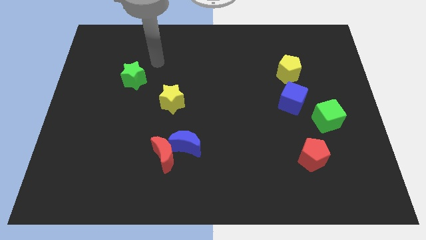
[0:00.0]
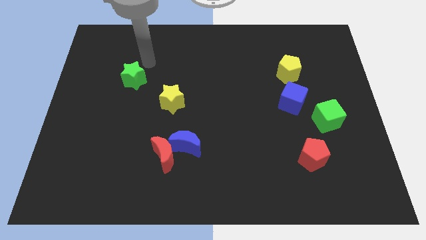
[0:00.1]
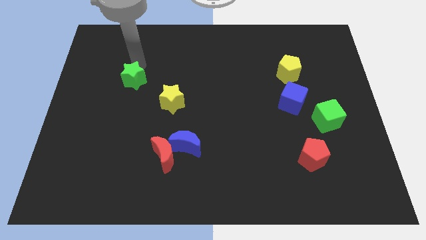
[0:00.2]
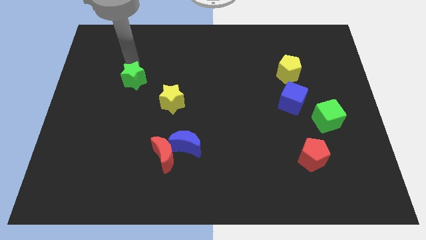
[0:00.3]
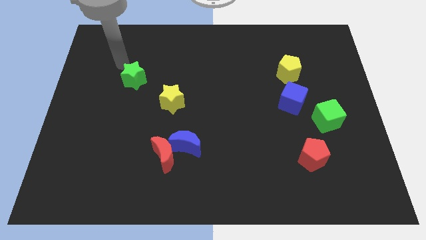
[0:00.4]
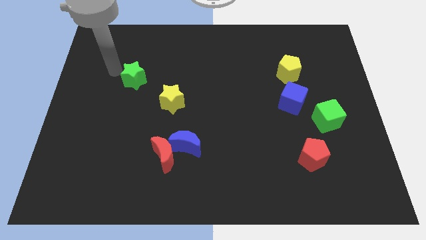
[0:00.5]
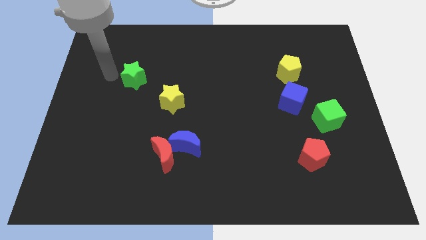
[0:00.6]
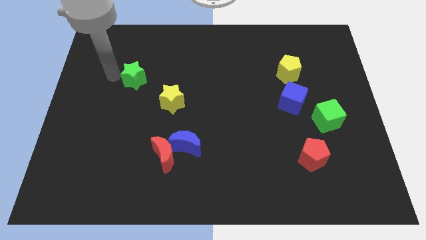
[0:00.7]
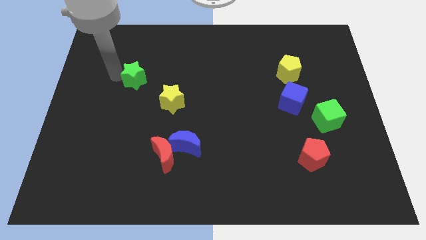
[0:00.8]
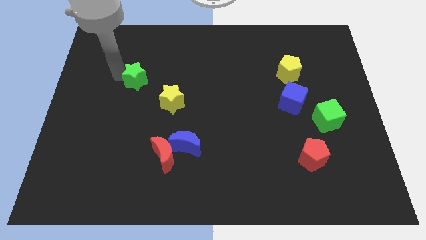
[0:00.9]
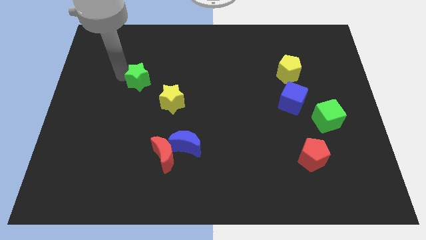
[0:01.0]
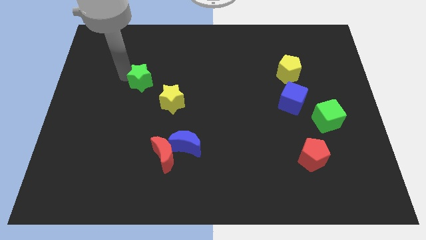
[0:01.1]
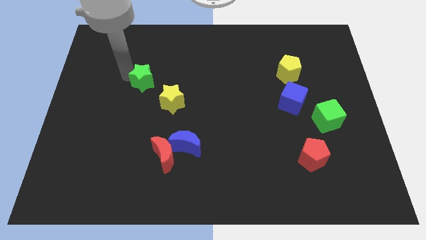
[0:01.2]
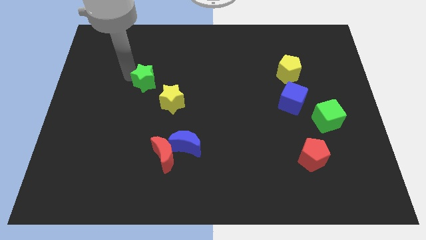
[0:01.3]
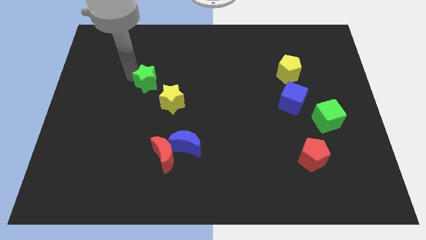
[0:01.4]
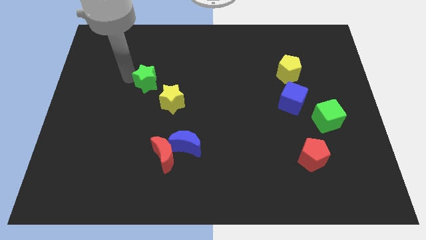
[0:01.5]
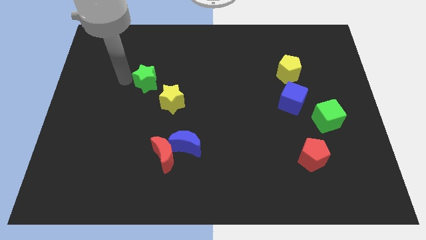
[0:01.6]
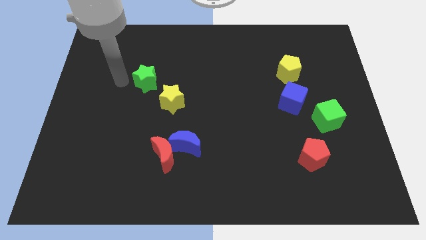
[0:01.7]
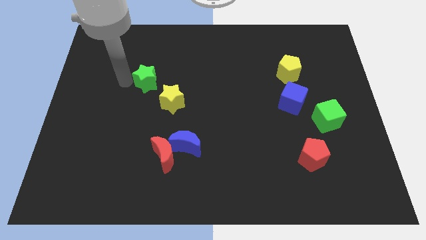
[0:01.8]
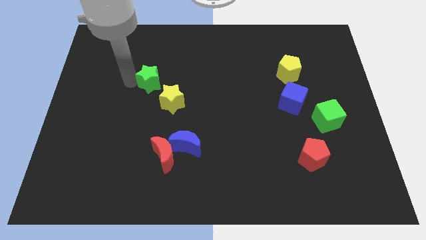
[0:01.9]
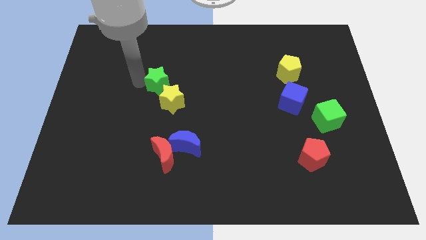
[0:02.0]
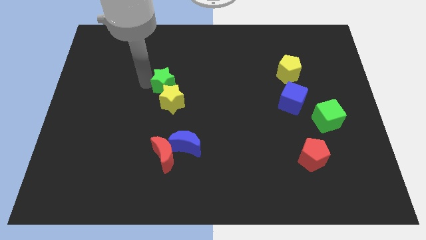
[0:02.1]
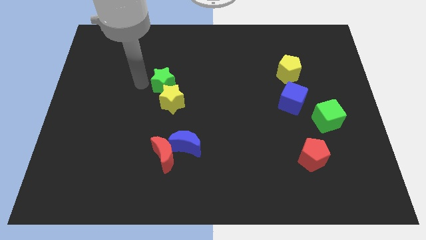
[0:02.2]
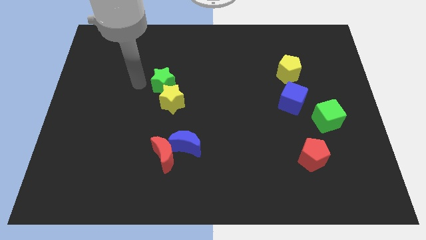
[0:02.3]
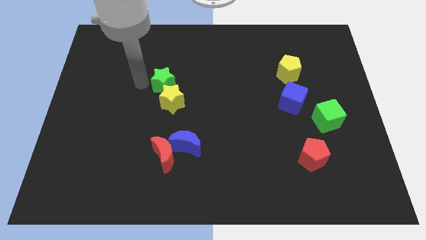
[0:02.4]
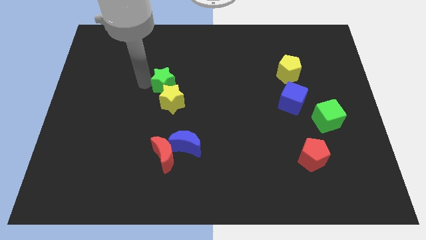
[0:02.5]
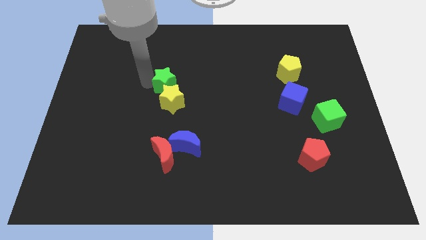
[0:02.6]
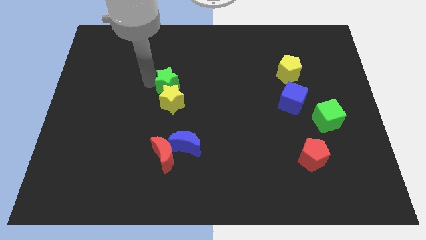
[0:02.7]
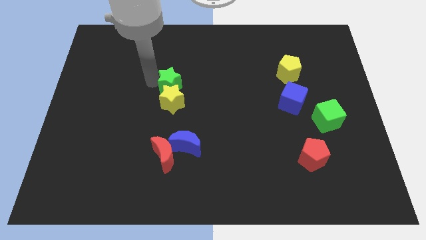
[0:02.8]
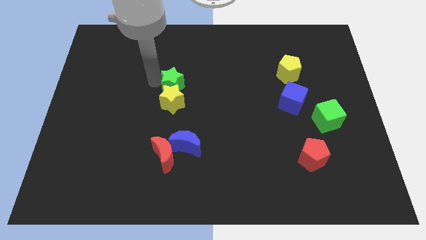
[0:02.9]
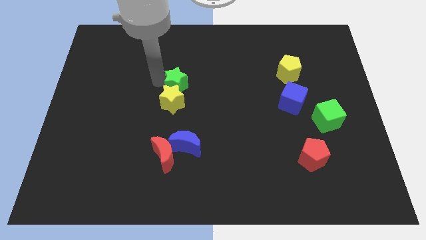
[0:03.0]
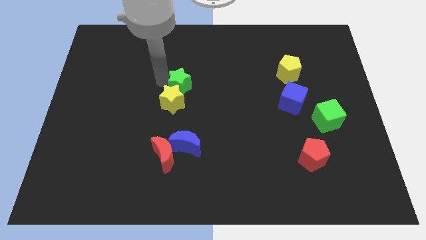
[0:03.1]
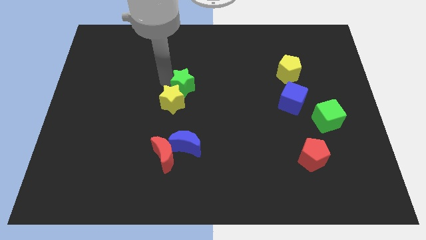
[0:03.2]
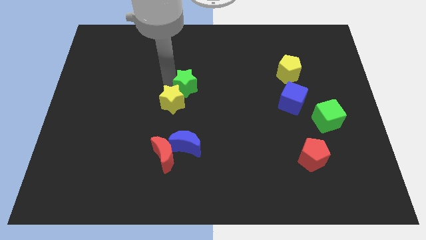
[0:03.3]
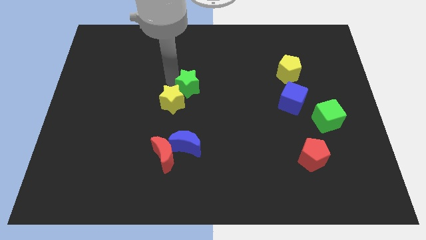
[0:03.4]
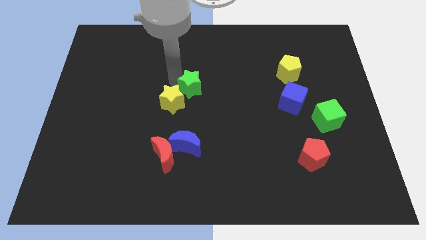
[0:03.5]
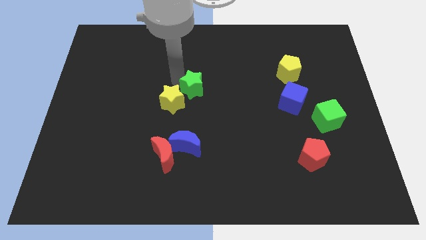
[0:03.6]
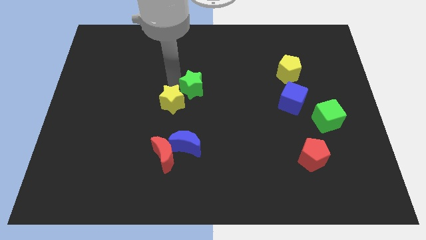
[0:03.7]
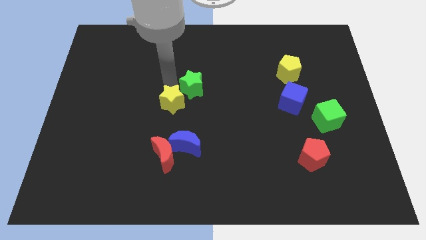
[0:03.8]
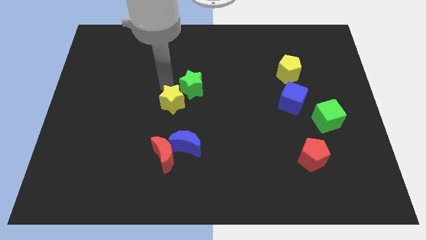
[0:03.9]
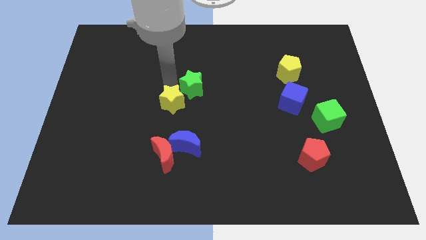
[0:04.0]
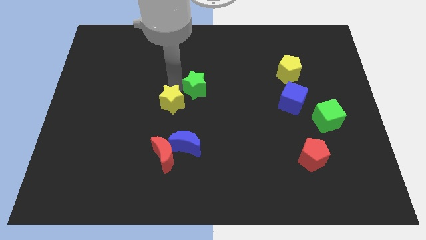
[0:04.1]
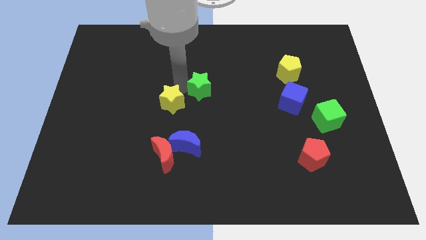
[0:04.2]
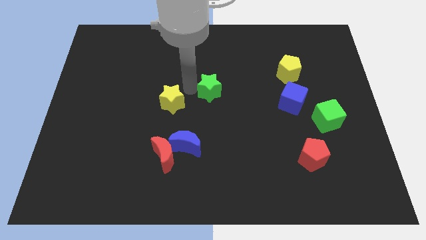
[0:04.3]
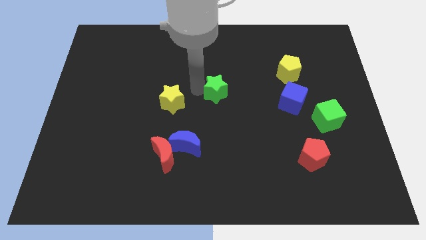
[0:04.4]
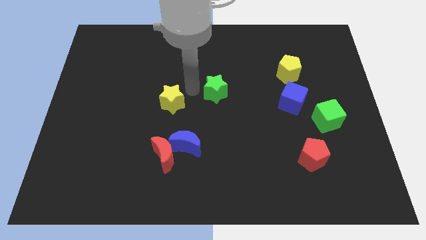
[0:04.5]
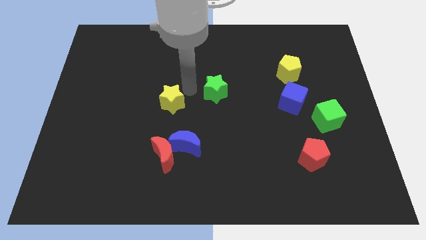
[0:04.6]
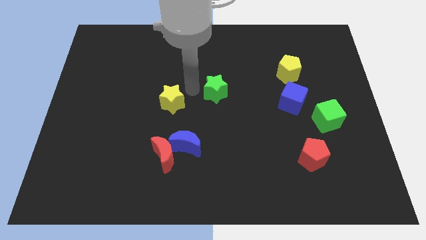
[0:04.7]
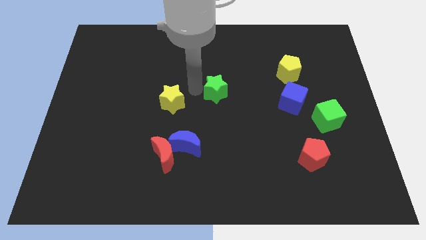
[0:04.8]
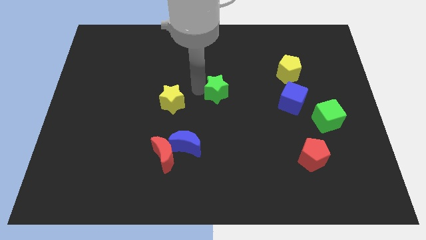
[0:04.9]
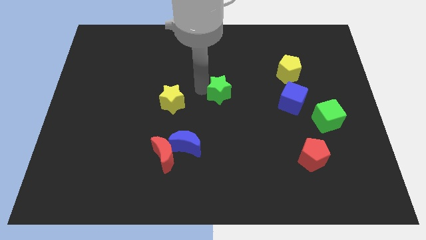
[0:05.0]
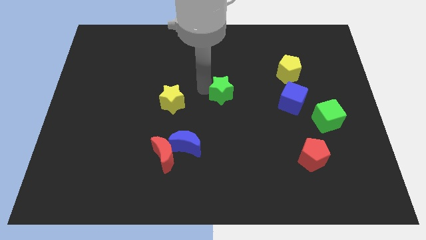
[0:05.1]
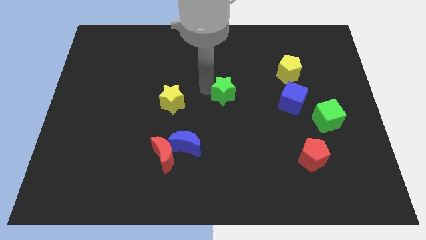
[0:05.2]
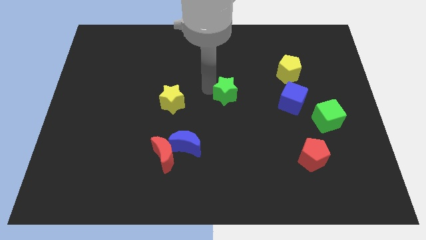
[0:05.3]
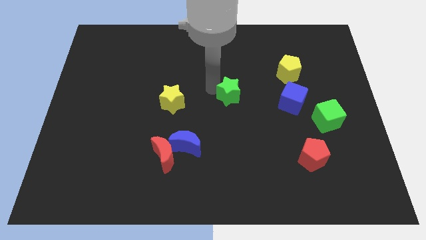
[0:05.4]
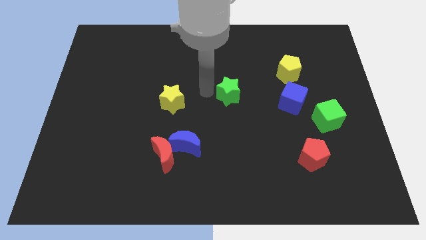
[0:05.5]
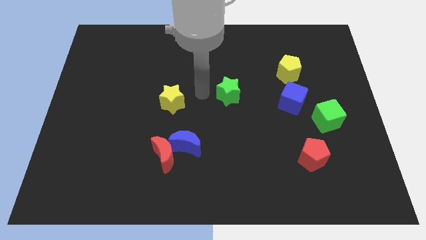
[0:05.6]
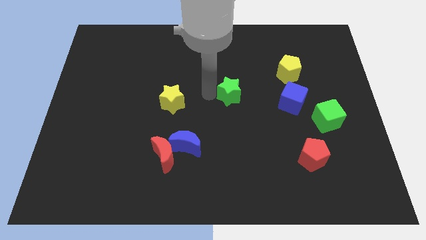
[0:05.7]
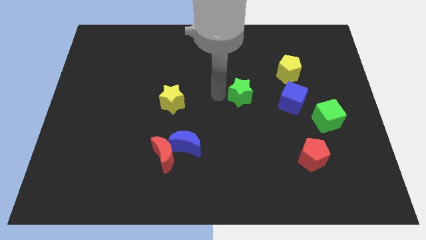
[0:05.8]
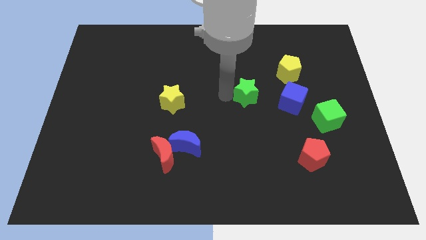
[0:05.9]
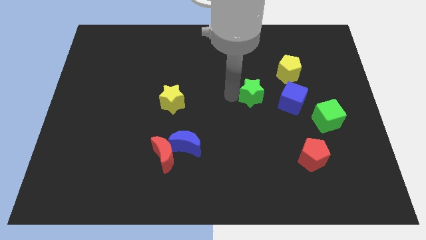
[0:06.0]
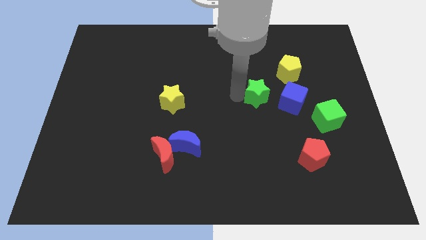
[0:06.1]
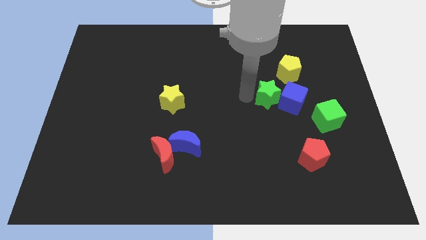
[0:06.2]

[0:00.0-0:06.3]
move the green star to the blue cube
